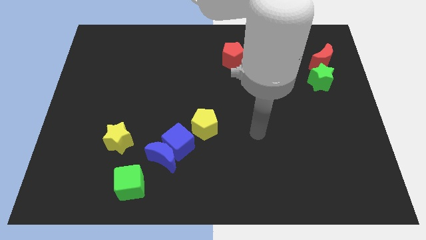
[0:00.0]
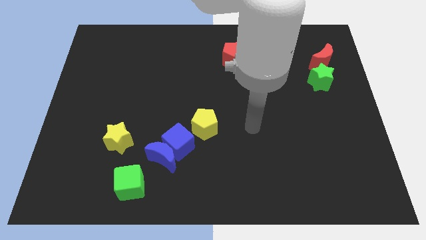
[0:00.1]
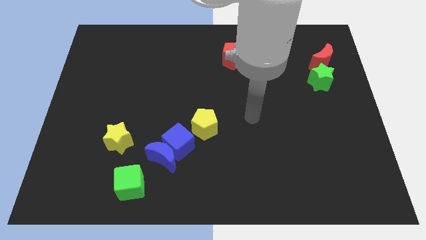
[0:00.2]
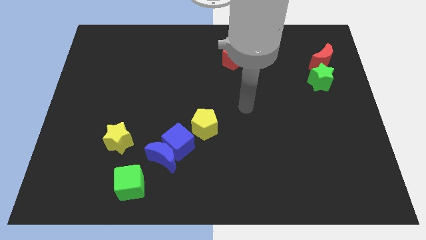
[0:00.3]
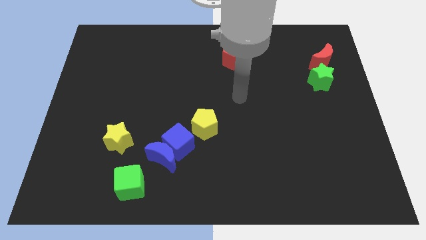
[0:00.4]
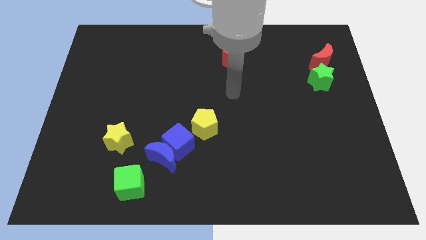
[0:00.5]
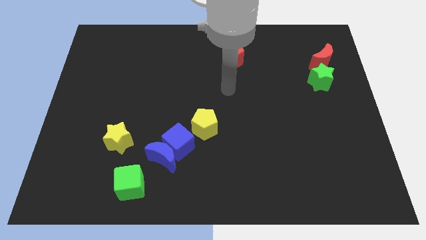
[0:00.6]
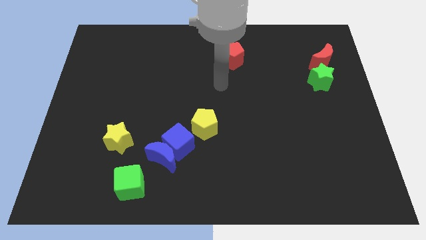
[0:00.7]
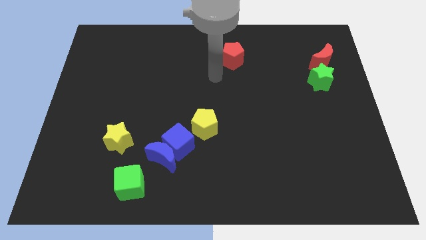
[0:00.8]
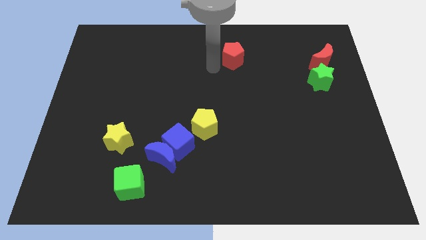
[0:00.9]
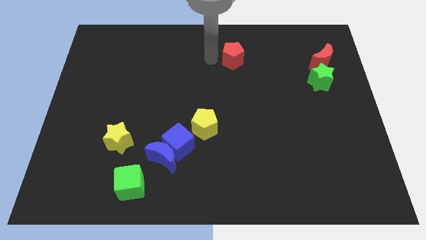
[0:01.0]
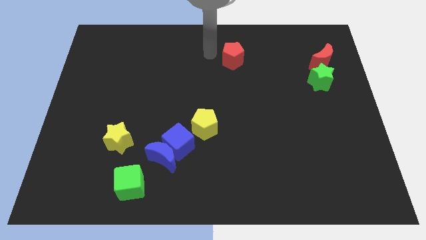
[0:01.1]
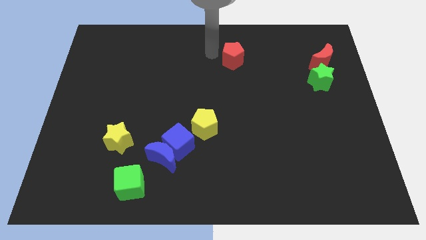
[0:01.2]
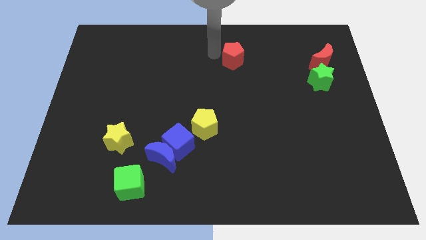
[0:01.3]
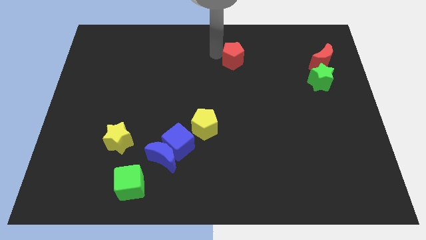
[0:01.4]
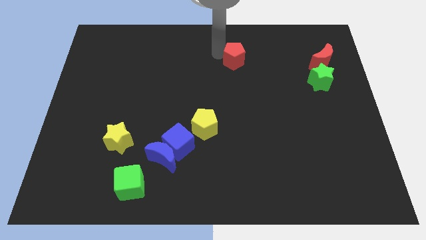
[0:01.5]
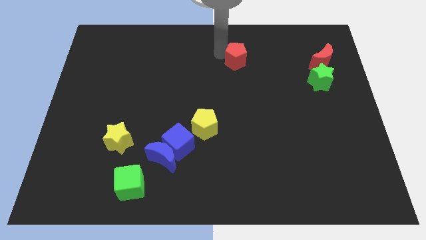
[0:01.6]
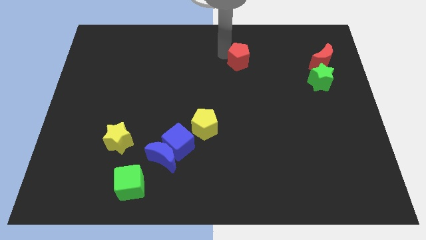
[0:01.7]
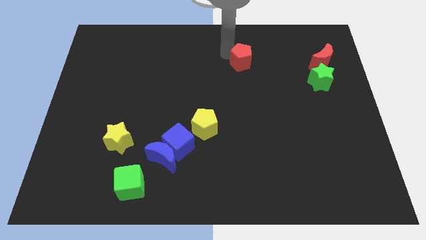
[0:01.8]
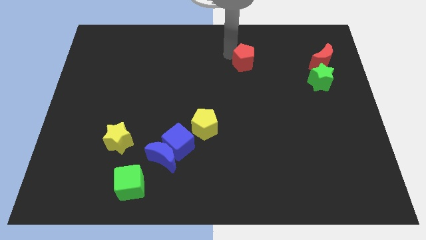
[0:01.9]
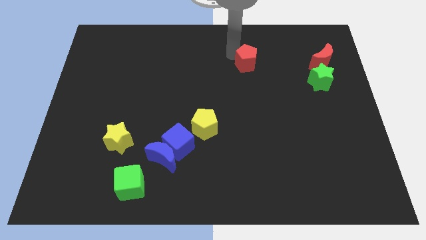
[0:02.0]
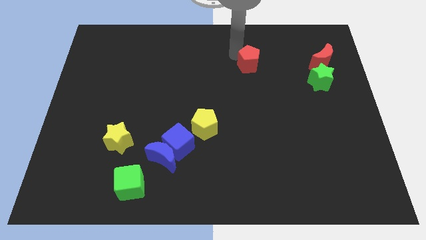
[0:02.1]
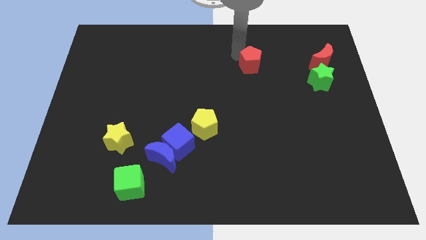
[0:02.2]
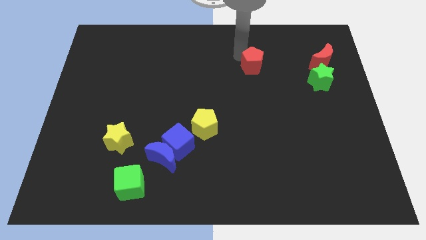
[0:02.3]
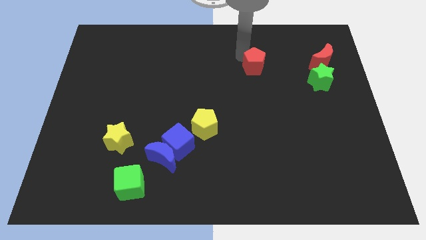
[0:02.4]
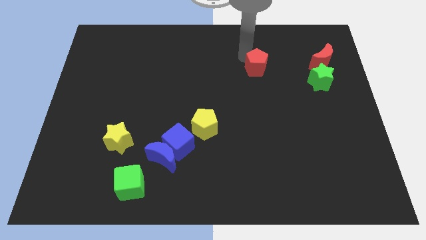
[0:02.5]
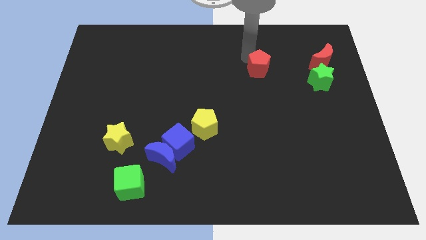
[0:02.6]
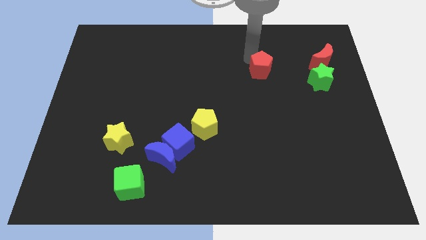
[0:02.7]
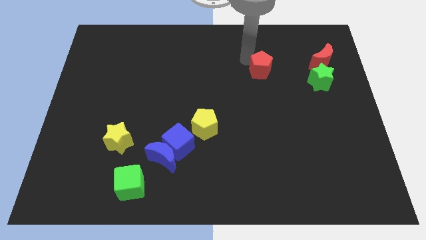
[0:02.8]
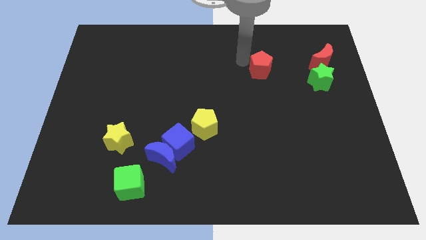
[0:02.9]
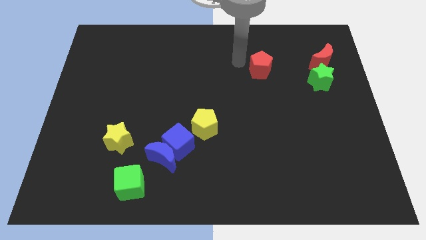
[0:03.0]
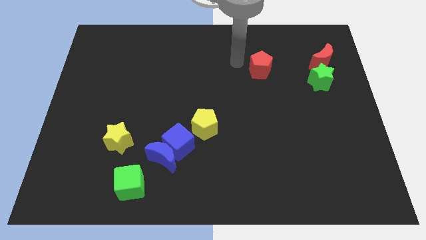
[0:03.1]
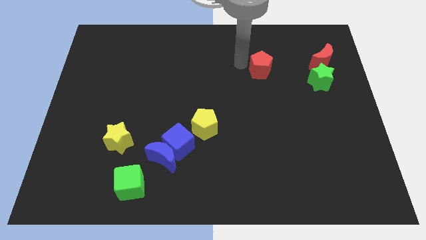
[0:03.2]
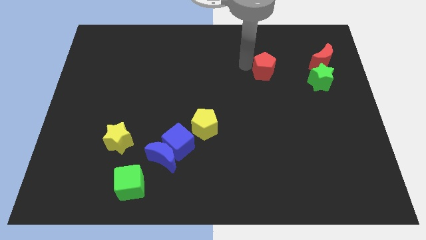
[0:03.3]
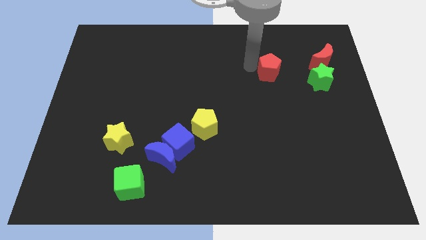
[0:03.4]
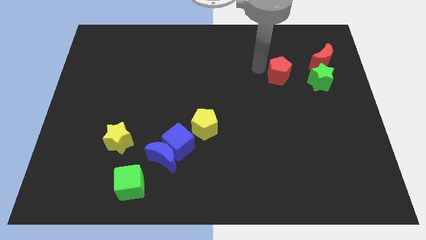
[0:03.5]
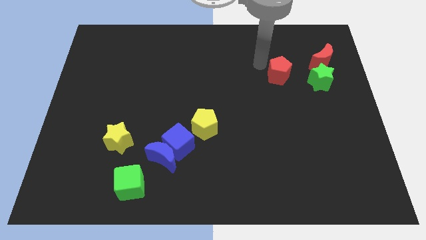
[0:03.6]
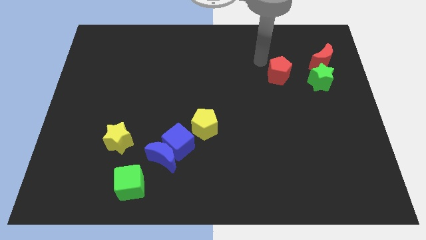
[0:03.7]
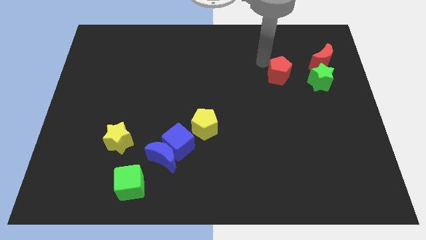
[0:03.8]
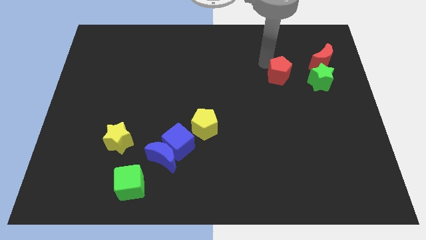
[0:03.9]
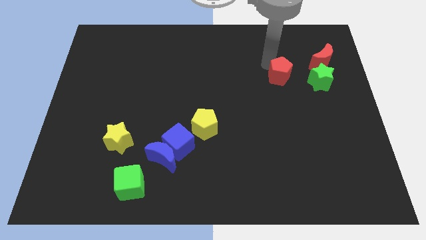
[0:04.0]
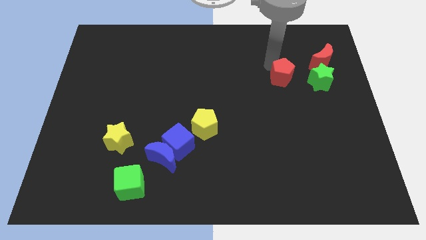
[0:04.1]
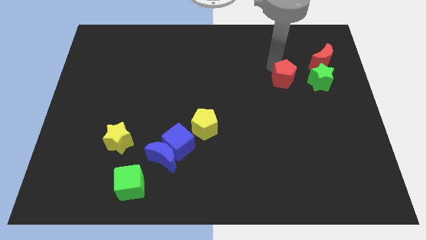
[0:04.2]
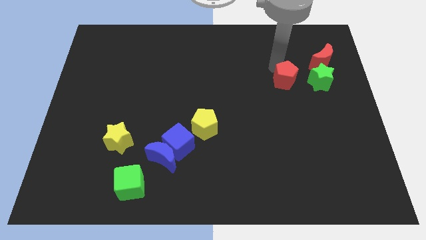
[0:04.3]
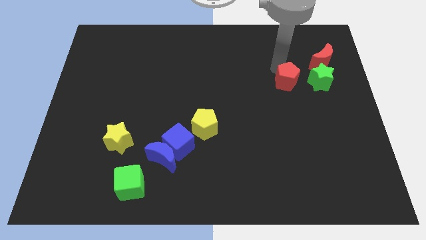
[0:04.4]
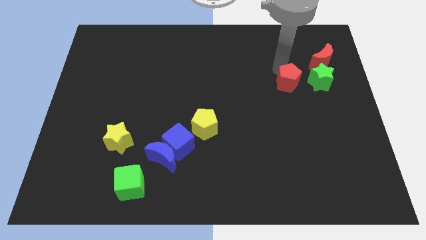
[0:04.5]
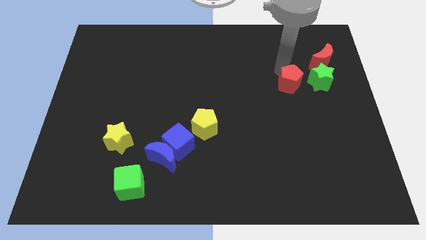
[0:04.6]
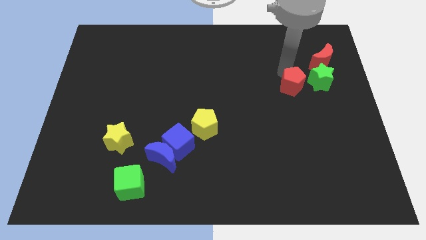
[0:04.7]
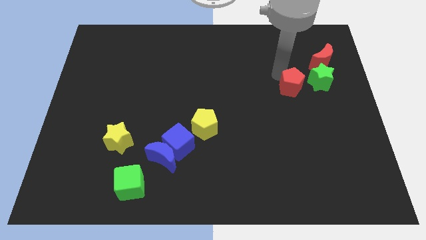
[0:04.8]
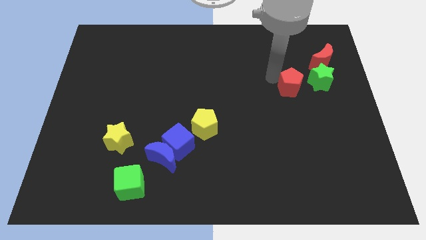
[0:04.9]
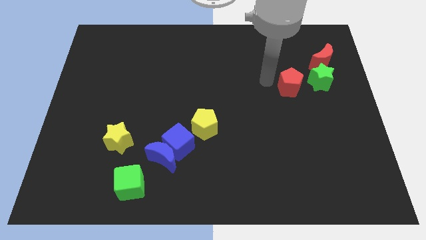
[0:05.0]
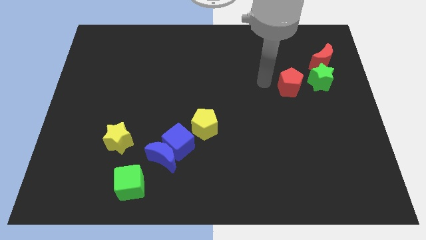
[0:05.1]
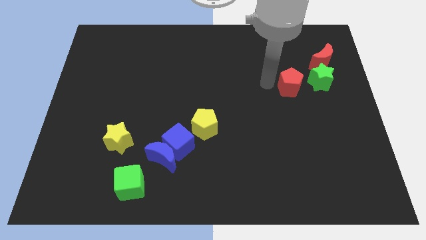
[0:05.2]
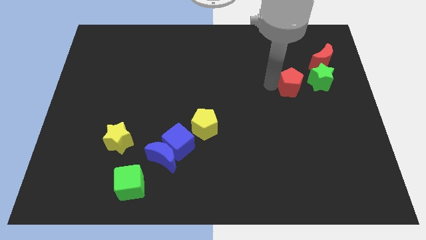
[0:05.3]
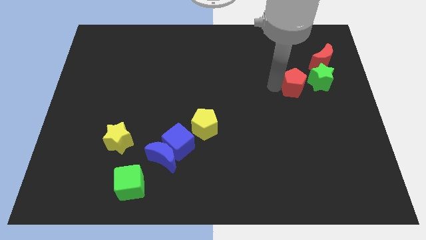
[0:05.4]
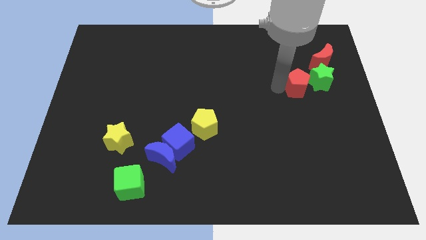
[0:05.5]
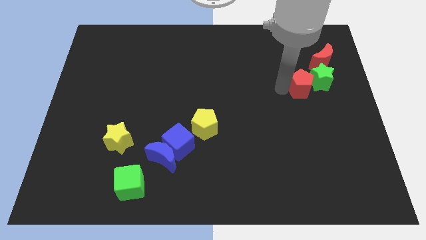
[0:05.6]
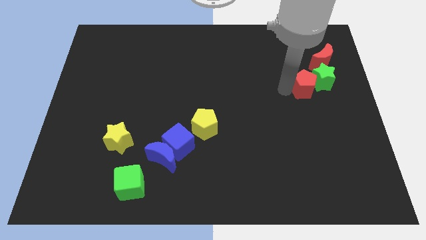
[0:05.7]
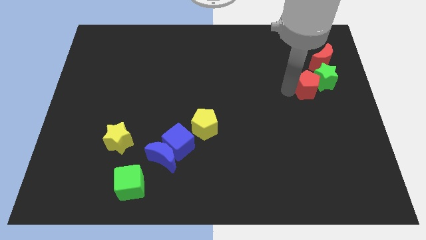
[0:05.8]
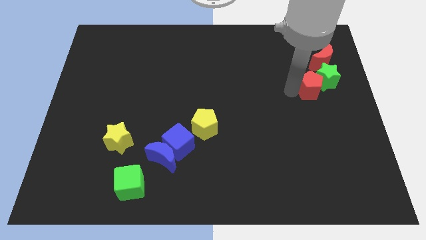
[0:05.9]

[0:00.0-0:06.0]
push the red pentagon below the red moon

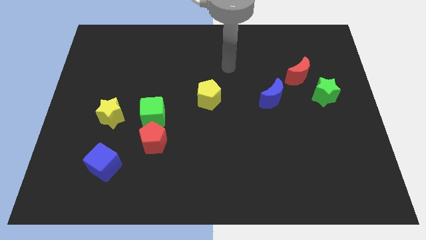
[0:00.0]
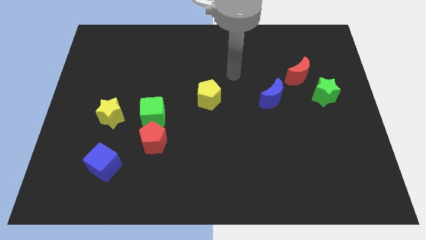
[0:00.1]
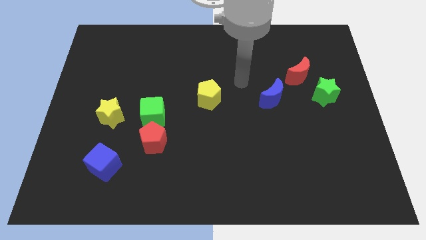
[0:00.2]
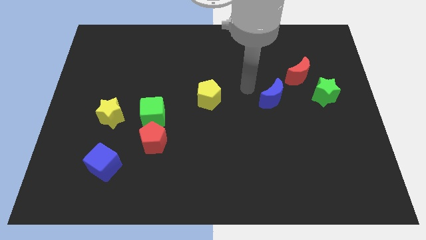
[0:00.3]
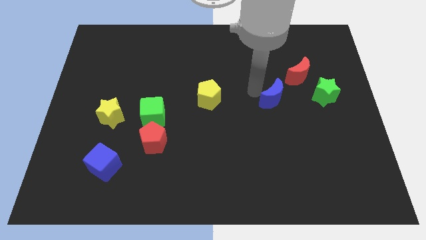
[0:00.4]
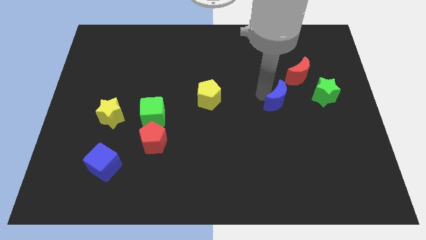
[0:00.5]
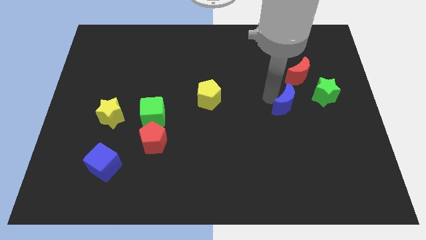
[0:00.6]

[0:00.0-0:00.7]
push the blue moon to the bottom left side of the green star

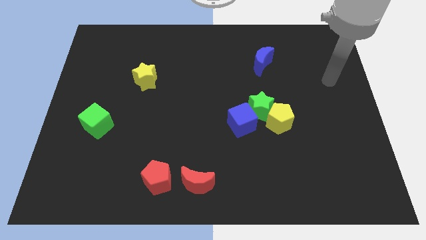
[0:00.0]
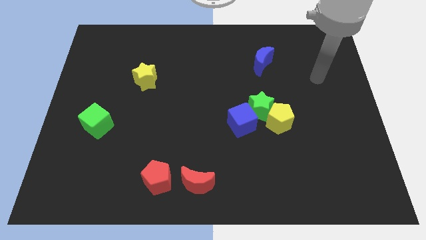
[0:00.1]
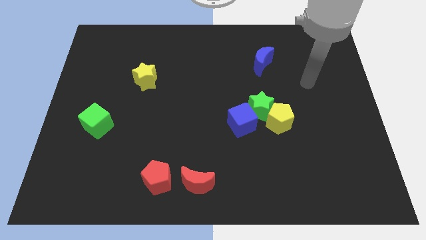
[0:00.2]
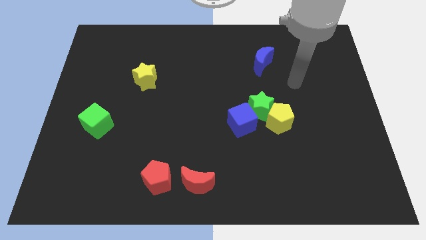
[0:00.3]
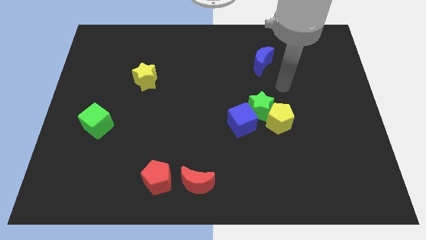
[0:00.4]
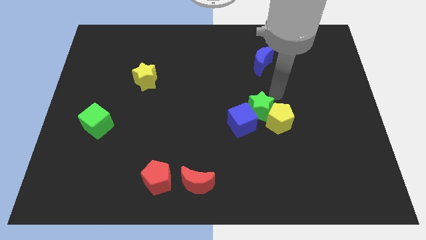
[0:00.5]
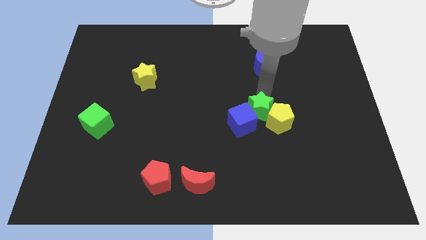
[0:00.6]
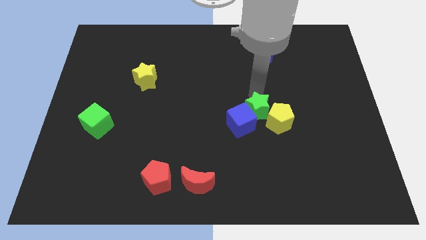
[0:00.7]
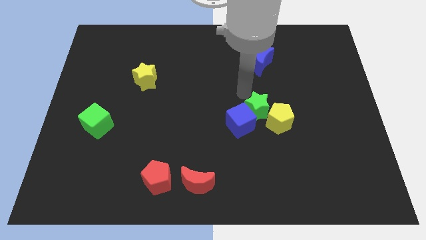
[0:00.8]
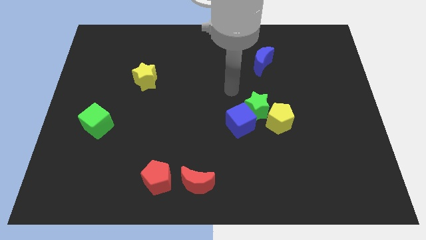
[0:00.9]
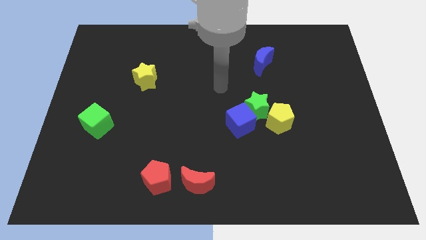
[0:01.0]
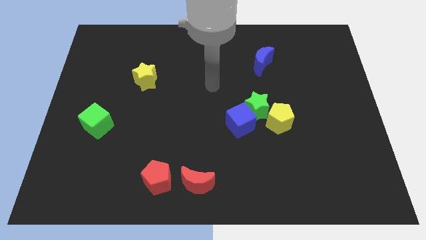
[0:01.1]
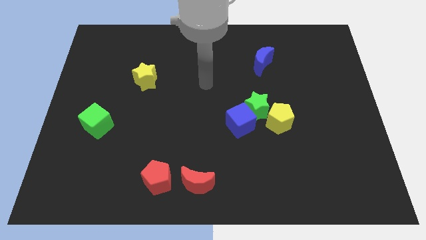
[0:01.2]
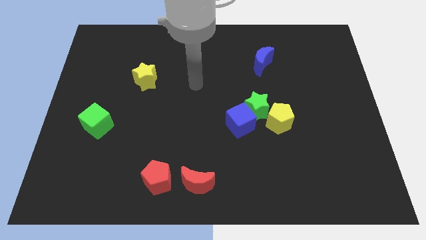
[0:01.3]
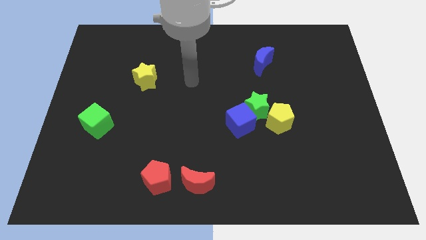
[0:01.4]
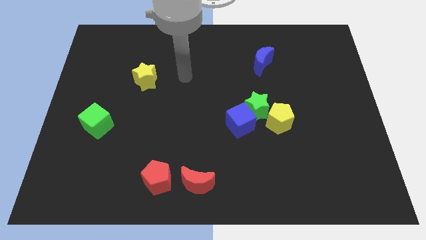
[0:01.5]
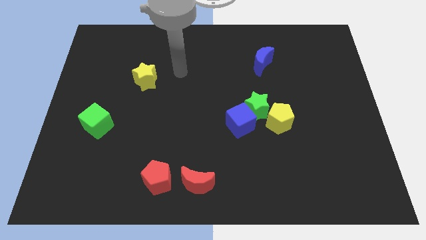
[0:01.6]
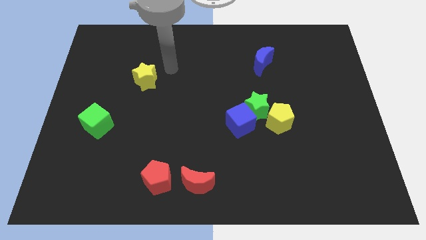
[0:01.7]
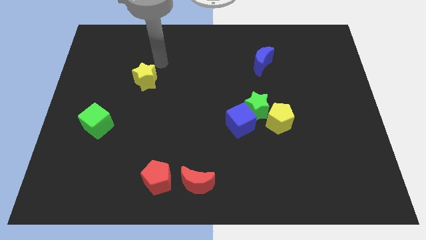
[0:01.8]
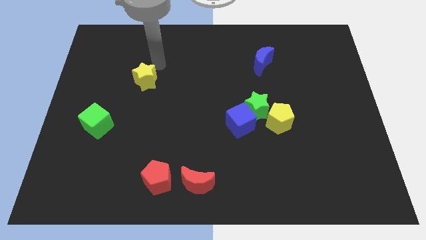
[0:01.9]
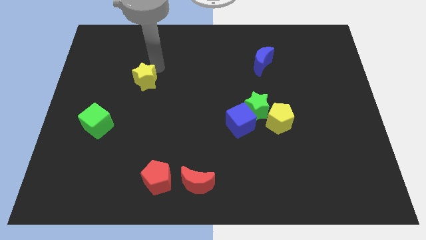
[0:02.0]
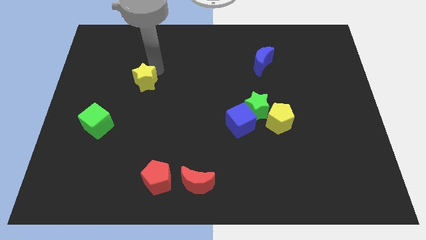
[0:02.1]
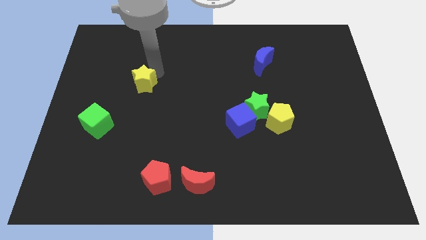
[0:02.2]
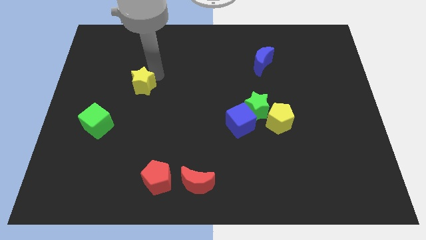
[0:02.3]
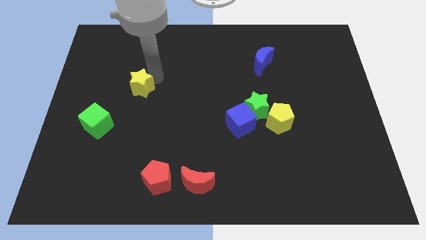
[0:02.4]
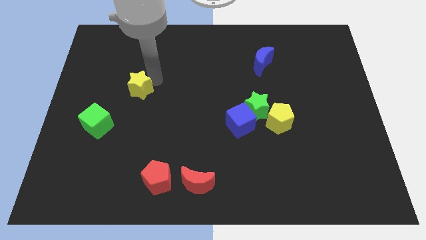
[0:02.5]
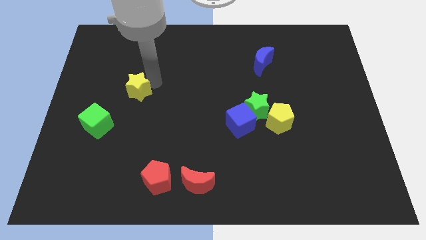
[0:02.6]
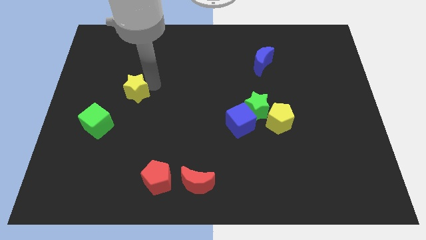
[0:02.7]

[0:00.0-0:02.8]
push the yellow star to the top right side of the green cube
